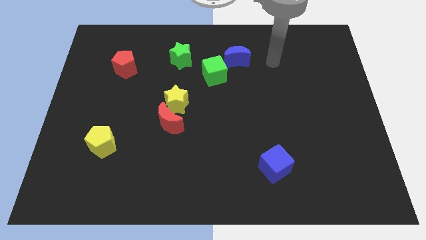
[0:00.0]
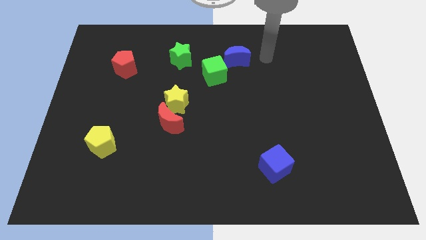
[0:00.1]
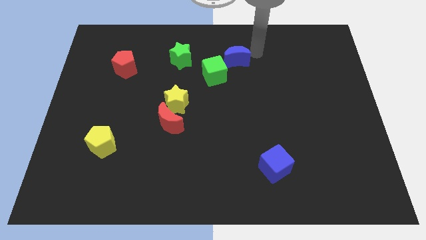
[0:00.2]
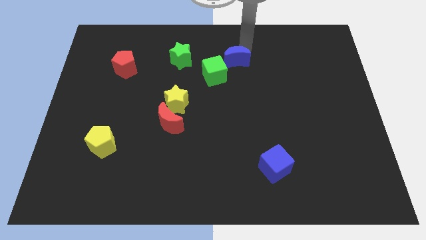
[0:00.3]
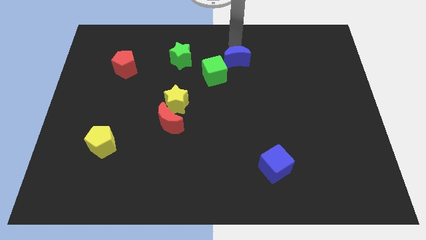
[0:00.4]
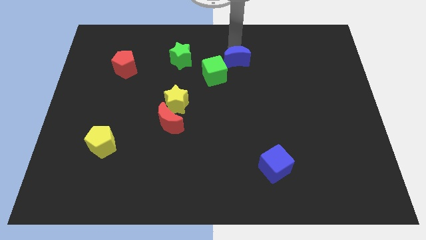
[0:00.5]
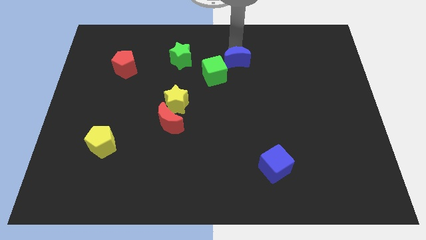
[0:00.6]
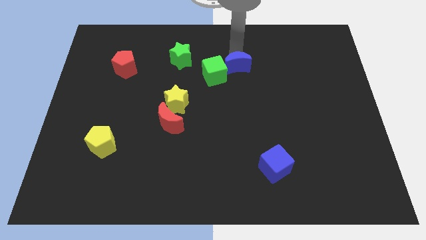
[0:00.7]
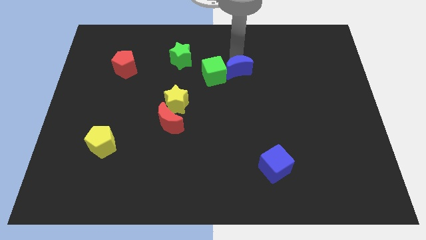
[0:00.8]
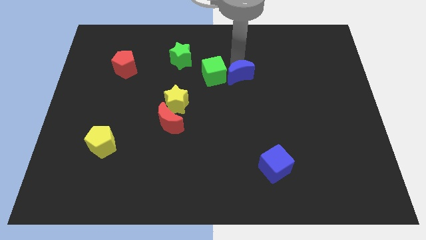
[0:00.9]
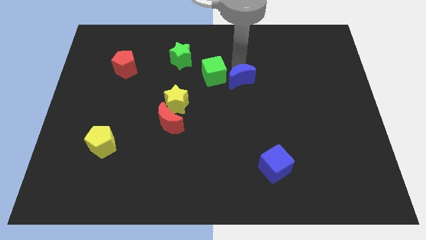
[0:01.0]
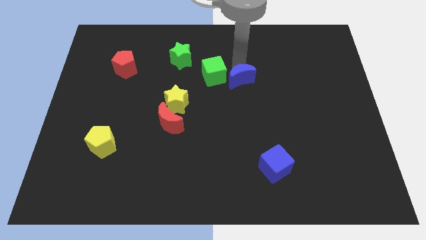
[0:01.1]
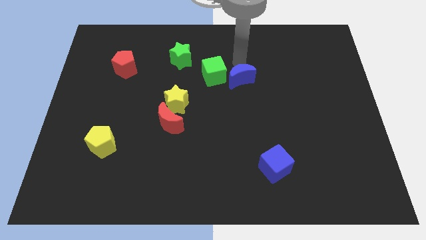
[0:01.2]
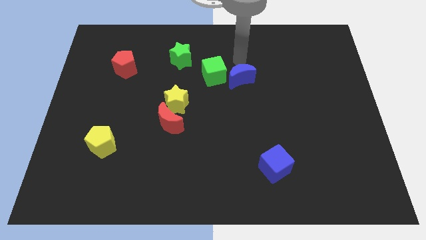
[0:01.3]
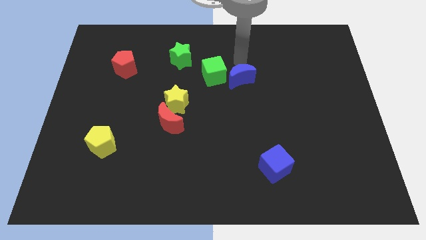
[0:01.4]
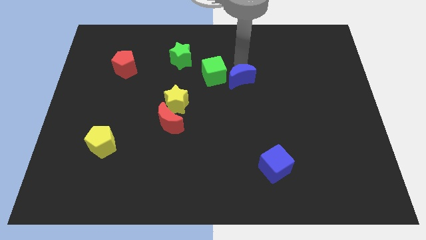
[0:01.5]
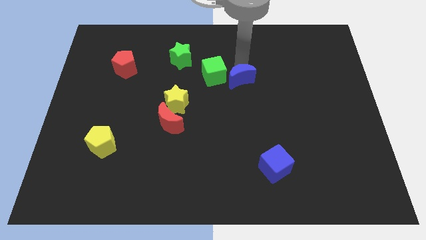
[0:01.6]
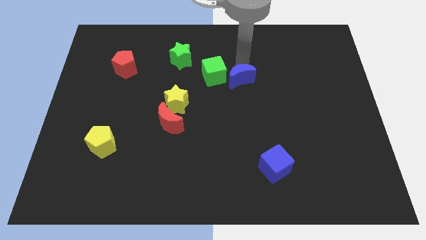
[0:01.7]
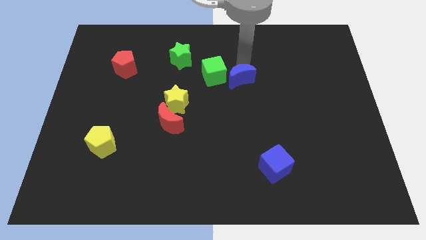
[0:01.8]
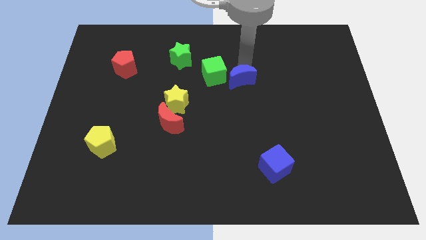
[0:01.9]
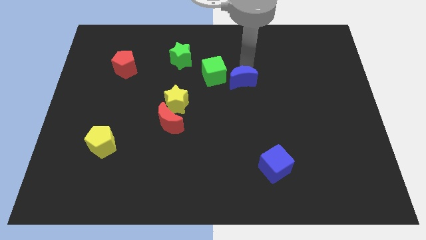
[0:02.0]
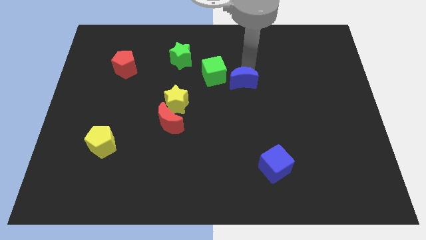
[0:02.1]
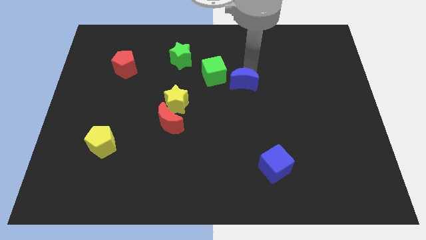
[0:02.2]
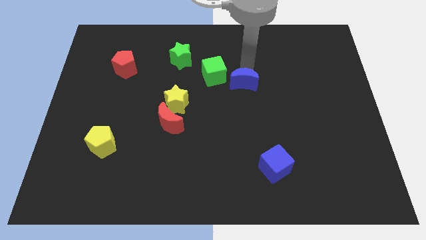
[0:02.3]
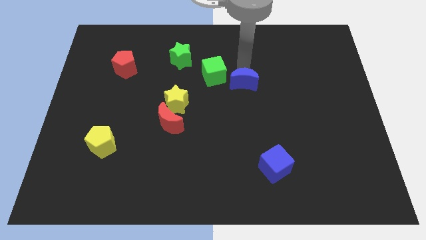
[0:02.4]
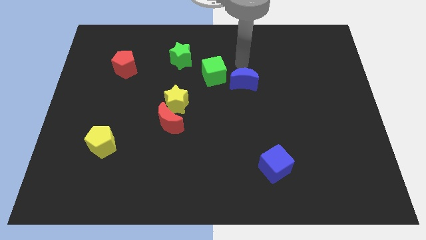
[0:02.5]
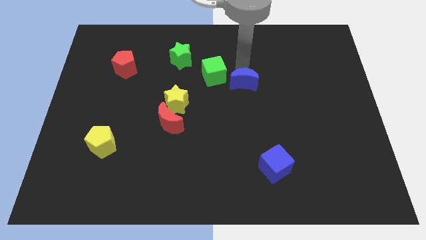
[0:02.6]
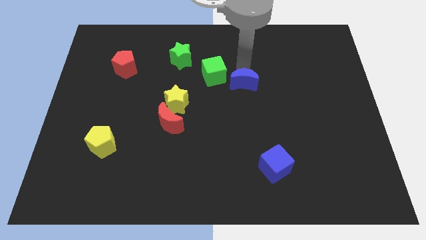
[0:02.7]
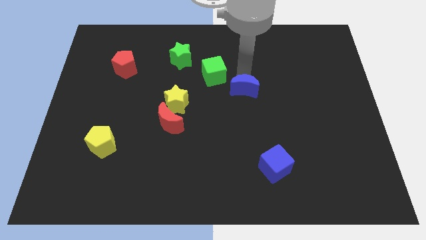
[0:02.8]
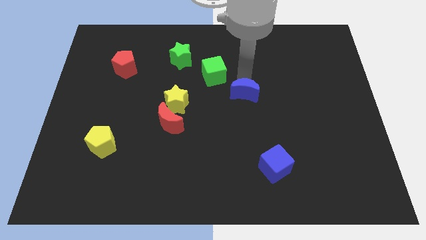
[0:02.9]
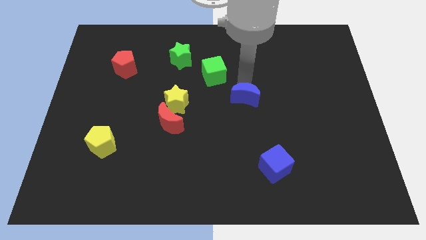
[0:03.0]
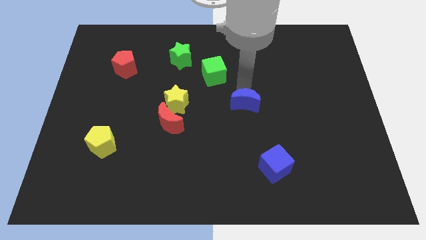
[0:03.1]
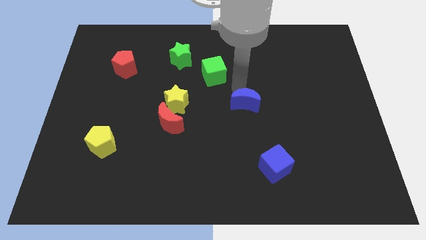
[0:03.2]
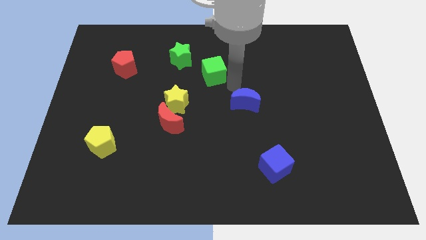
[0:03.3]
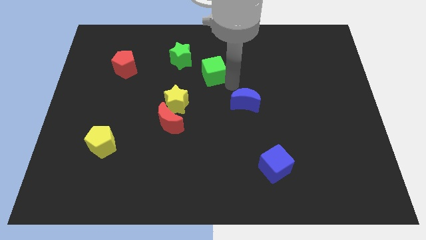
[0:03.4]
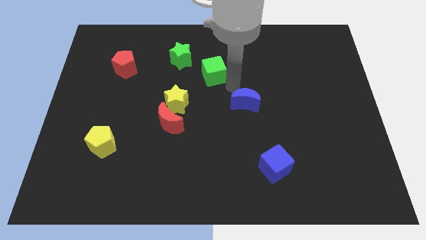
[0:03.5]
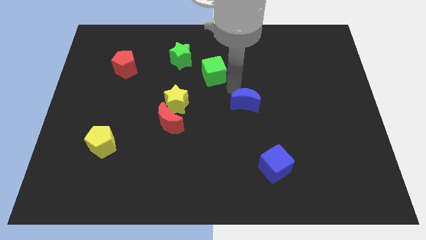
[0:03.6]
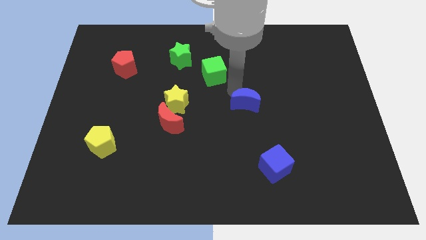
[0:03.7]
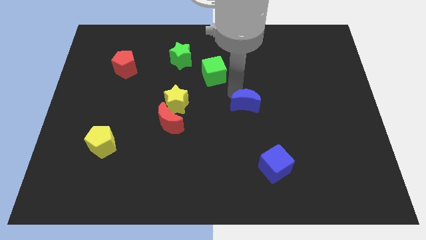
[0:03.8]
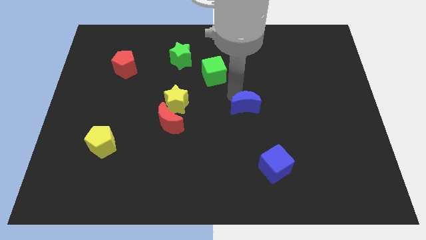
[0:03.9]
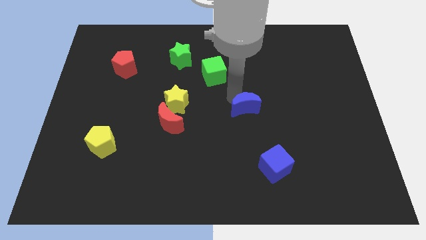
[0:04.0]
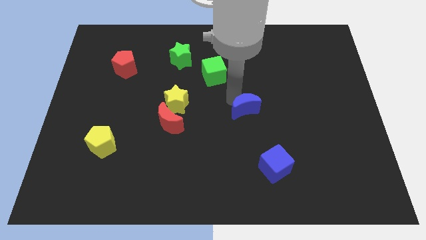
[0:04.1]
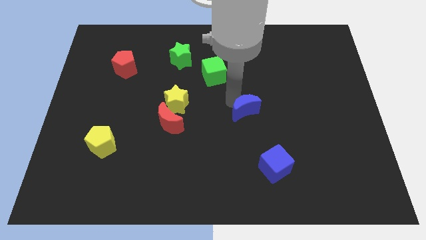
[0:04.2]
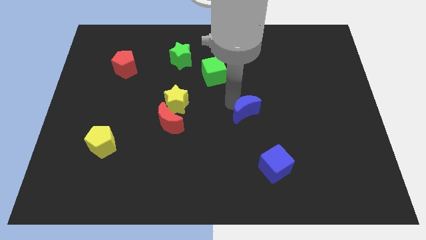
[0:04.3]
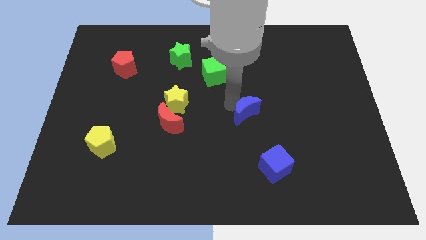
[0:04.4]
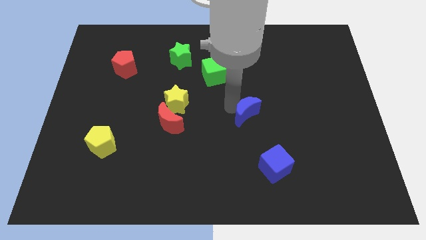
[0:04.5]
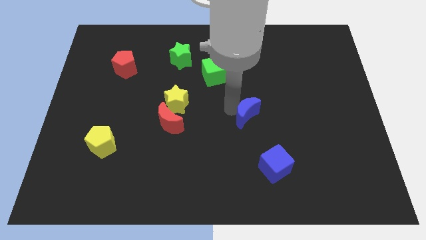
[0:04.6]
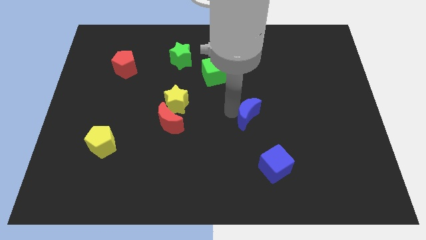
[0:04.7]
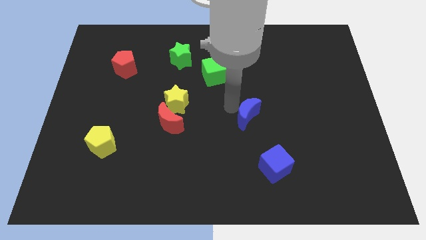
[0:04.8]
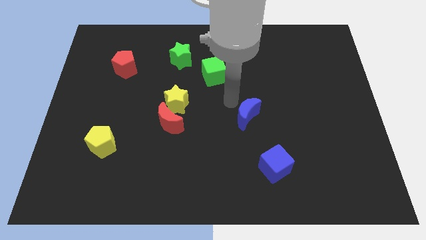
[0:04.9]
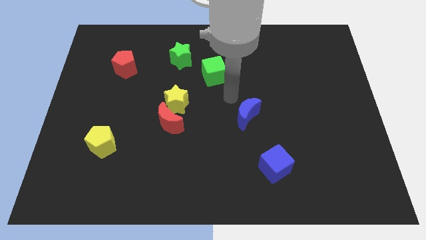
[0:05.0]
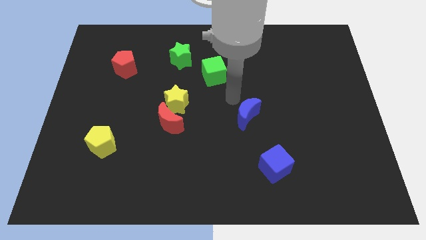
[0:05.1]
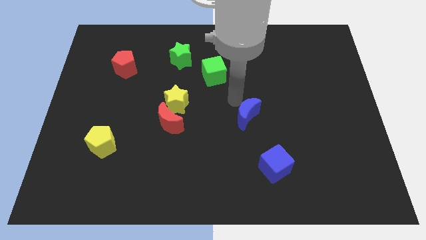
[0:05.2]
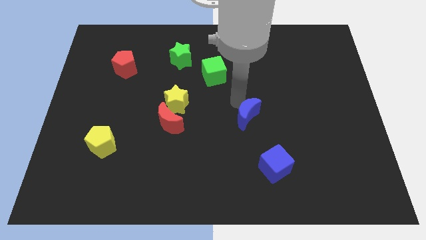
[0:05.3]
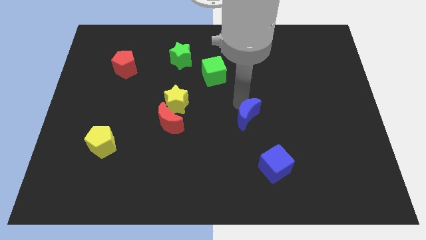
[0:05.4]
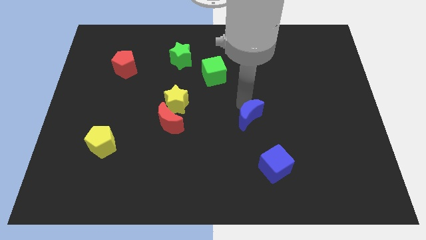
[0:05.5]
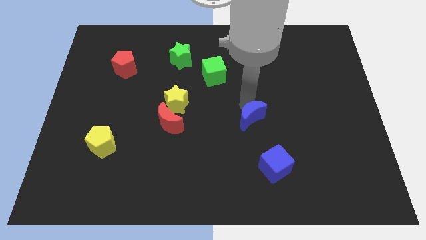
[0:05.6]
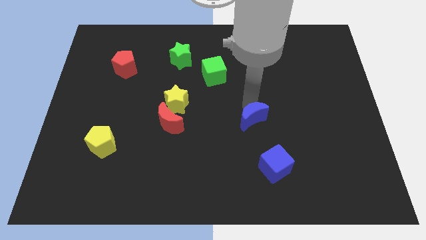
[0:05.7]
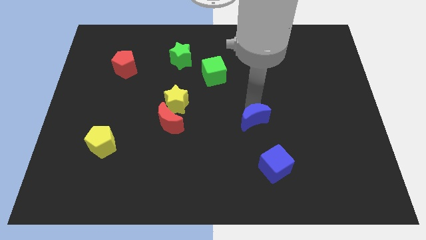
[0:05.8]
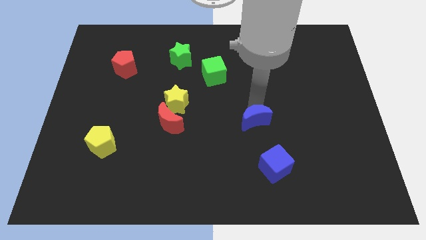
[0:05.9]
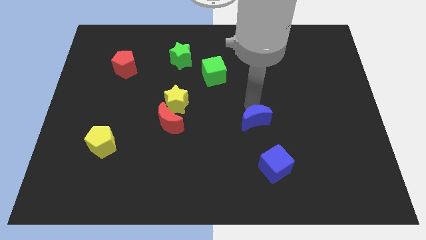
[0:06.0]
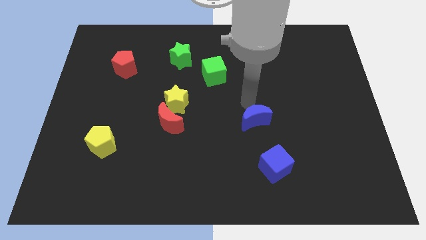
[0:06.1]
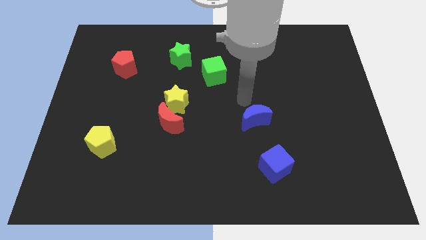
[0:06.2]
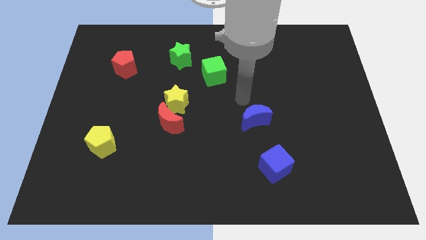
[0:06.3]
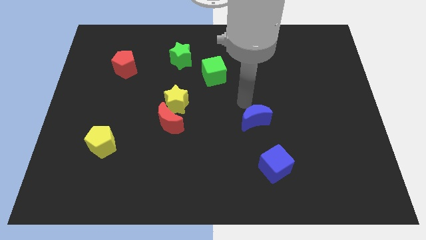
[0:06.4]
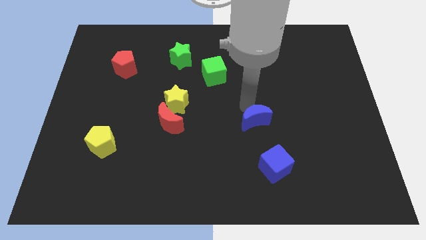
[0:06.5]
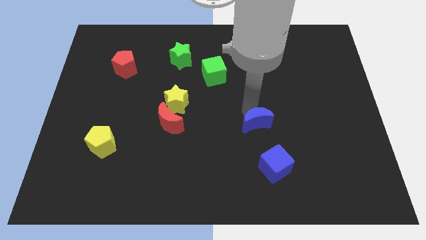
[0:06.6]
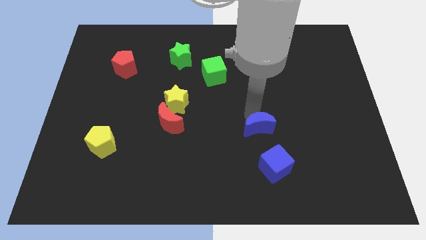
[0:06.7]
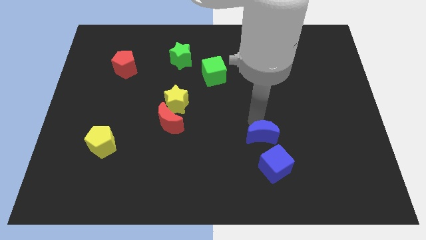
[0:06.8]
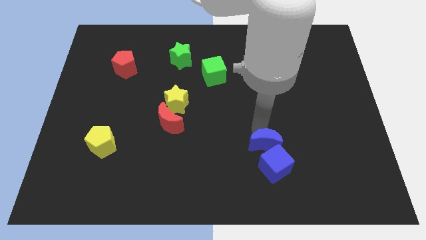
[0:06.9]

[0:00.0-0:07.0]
move the blue moon towards the blue cube

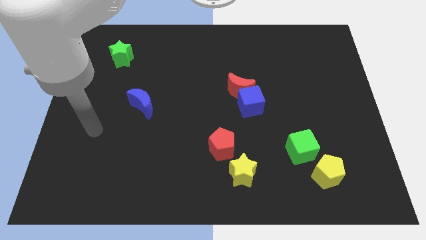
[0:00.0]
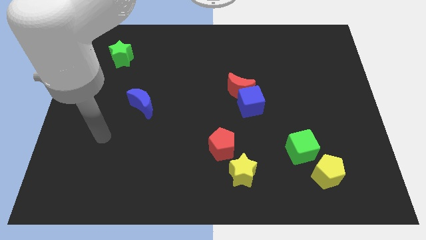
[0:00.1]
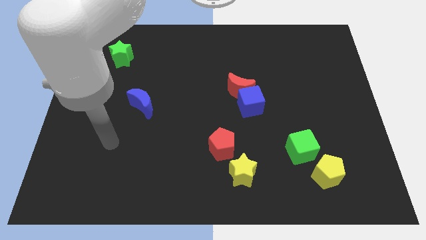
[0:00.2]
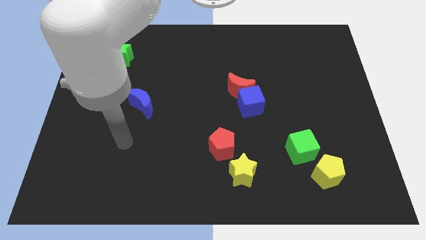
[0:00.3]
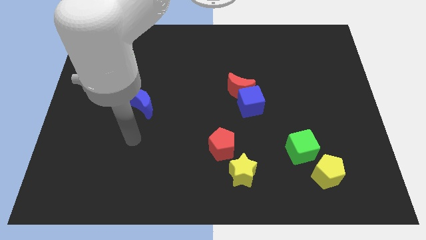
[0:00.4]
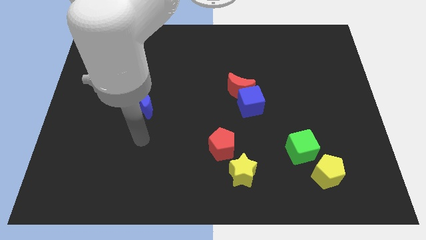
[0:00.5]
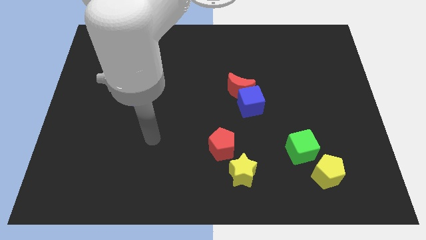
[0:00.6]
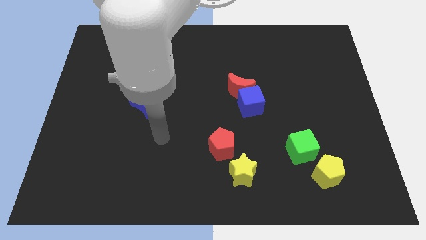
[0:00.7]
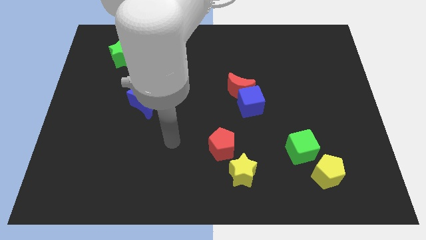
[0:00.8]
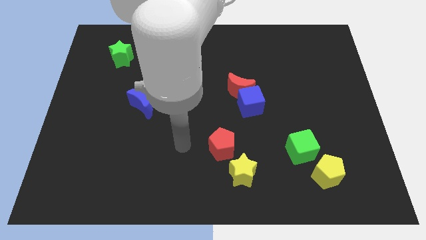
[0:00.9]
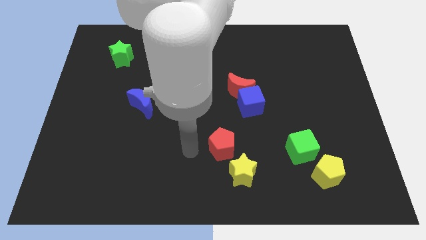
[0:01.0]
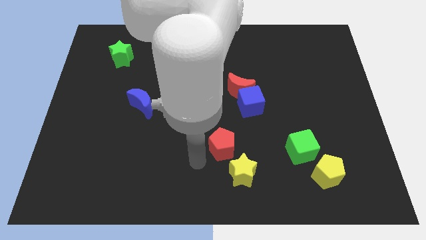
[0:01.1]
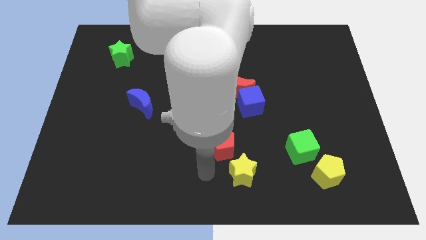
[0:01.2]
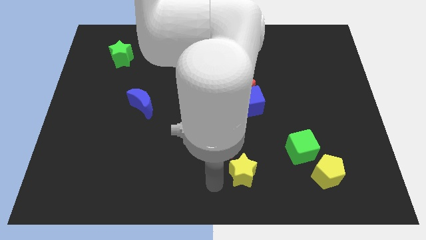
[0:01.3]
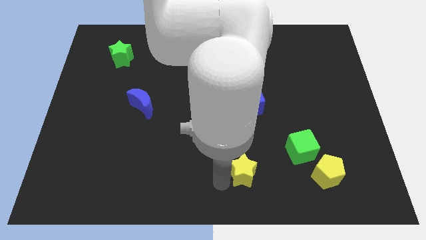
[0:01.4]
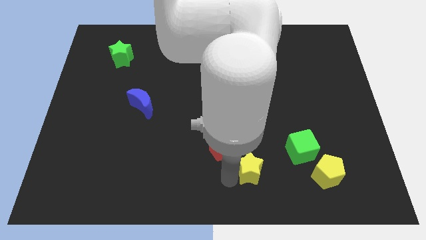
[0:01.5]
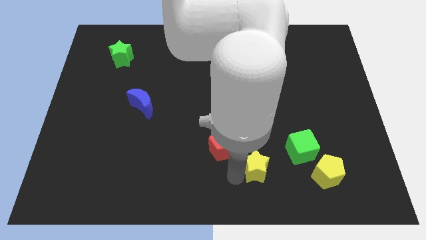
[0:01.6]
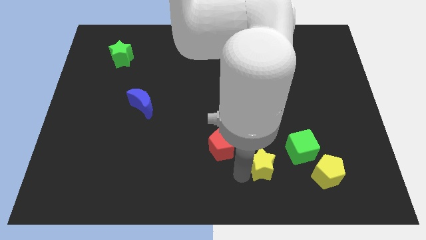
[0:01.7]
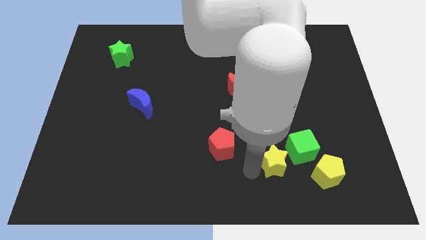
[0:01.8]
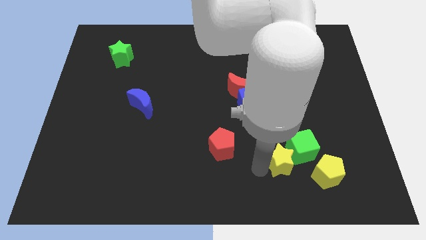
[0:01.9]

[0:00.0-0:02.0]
slide the yellow star towards the green cube
